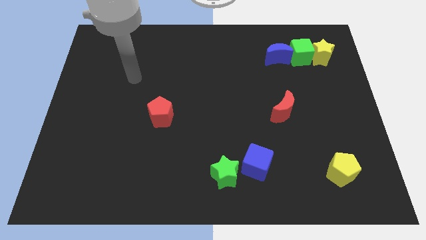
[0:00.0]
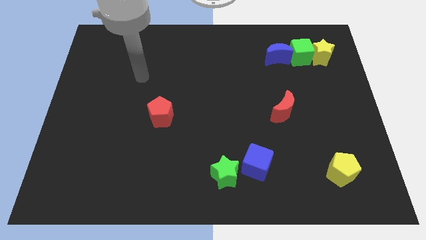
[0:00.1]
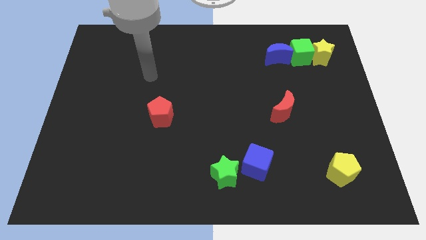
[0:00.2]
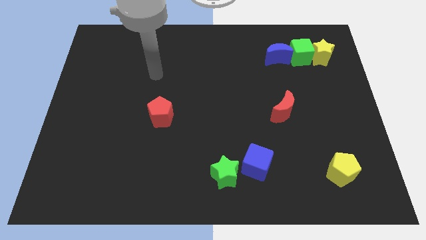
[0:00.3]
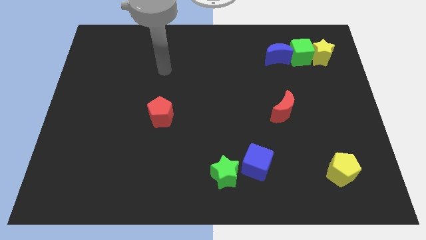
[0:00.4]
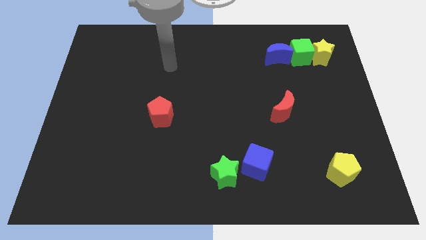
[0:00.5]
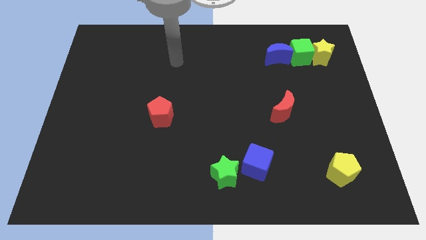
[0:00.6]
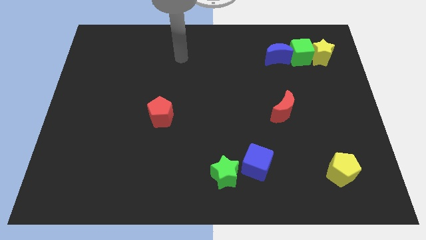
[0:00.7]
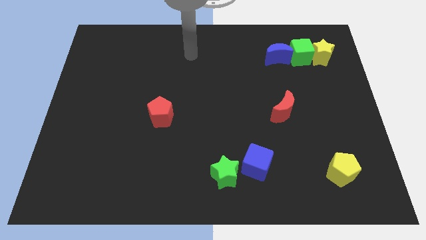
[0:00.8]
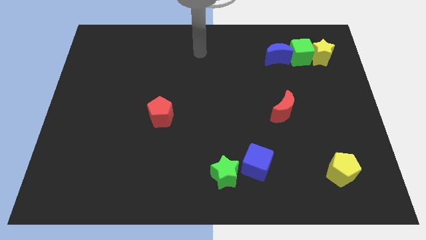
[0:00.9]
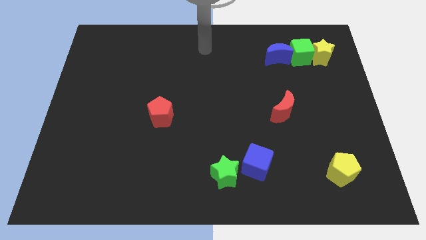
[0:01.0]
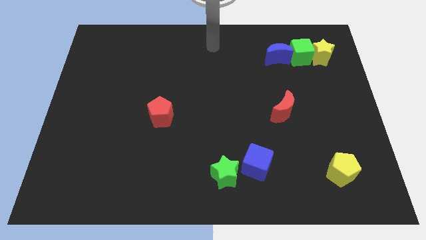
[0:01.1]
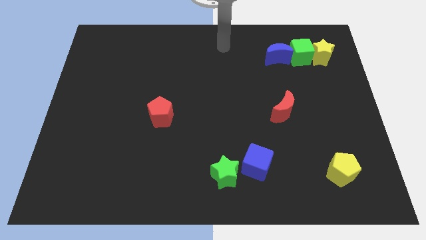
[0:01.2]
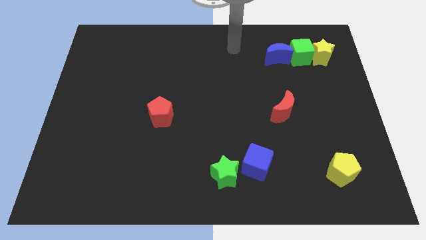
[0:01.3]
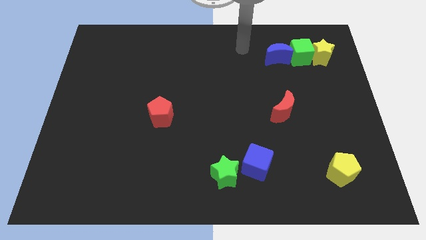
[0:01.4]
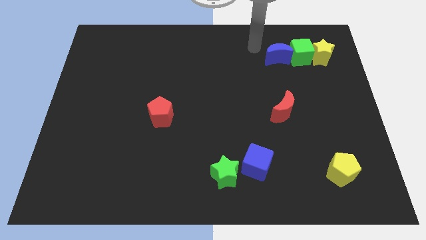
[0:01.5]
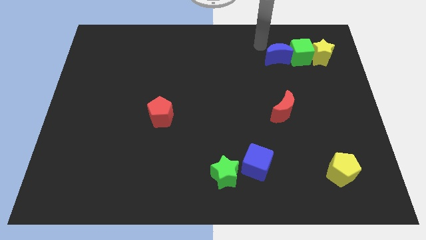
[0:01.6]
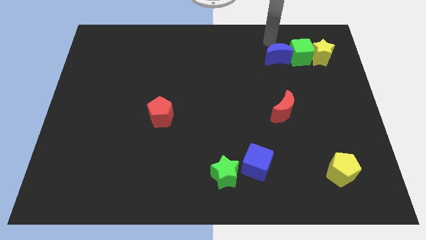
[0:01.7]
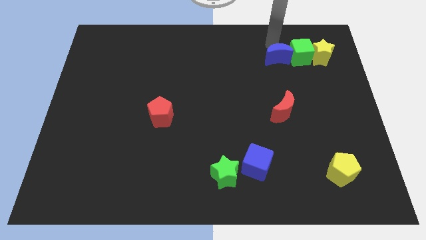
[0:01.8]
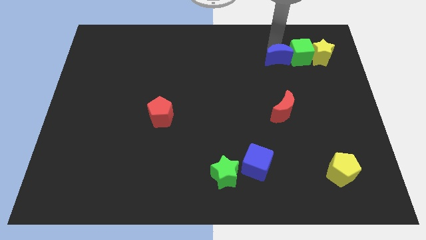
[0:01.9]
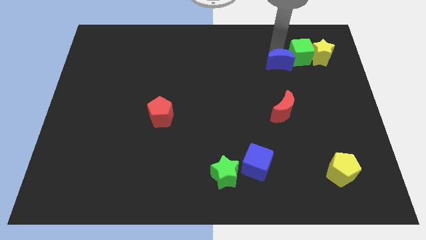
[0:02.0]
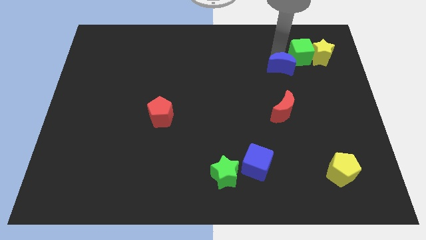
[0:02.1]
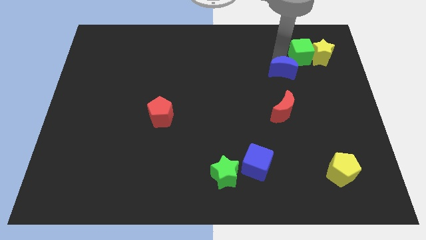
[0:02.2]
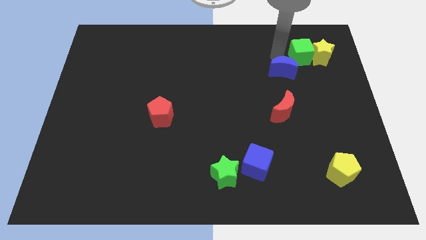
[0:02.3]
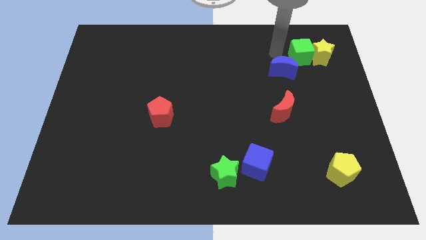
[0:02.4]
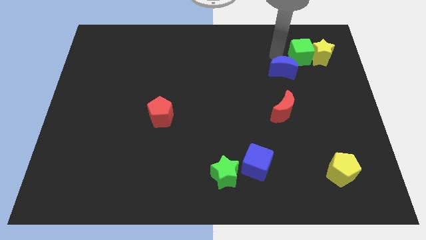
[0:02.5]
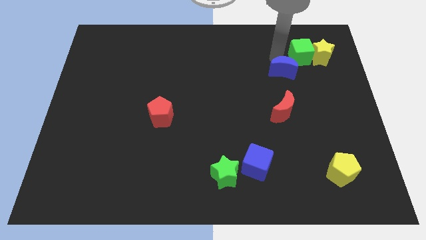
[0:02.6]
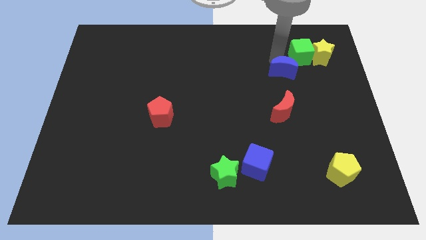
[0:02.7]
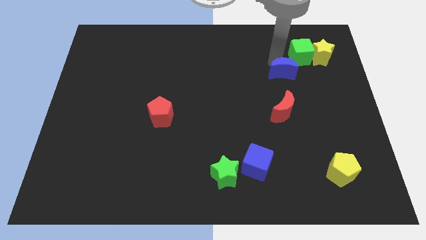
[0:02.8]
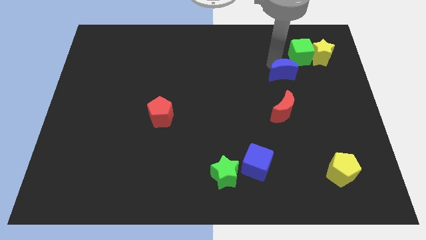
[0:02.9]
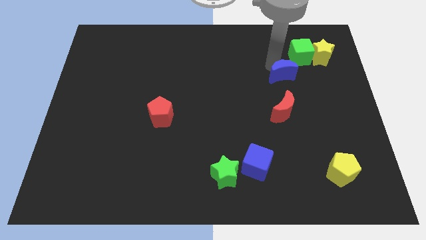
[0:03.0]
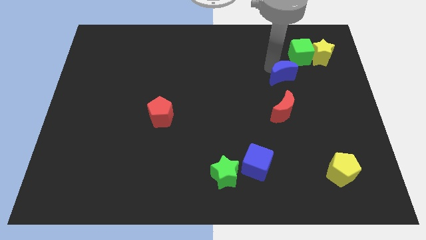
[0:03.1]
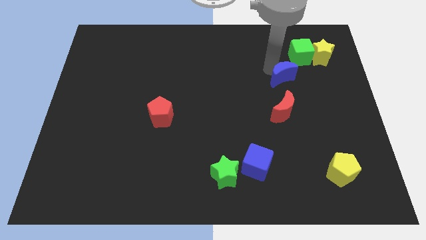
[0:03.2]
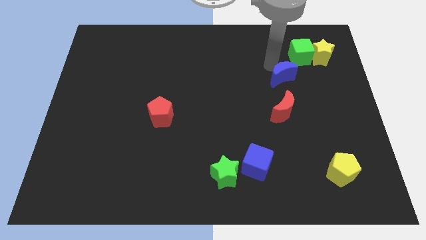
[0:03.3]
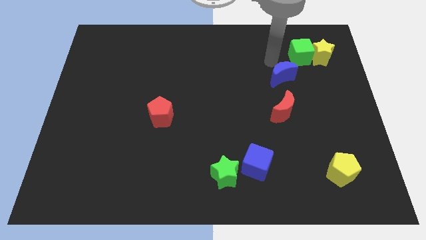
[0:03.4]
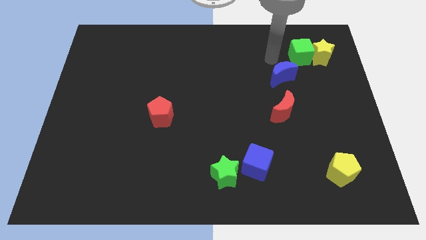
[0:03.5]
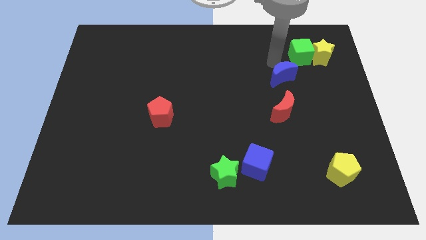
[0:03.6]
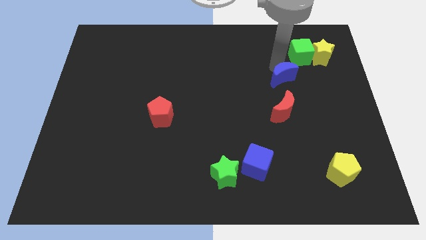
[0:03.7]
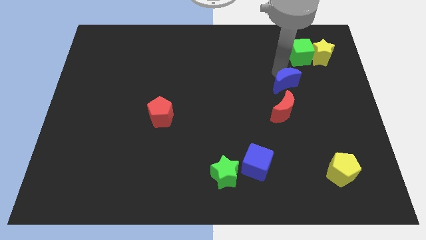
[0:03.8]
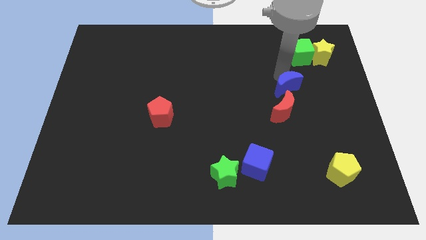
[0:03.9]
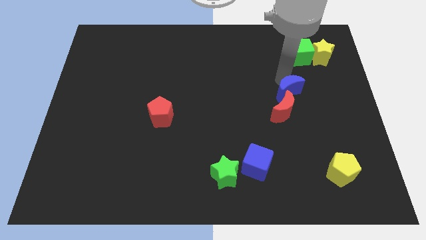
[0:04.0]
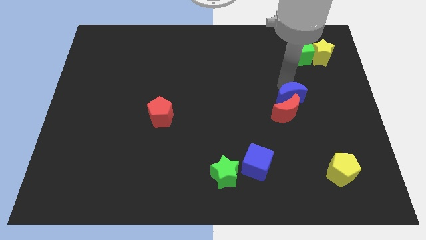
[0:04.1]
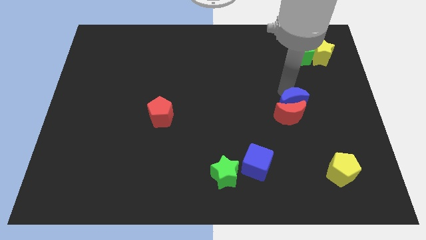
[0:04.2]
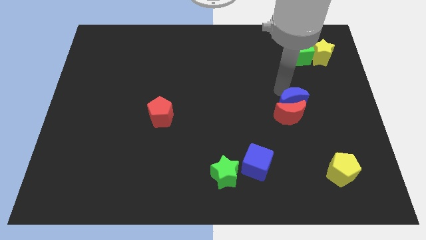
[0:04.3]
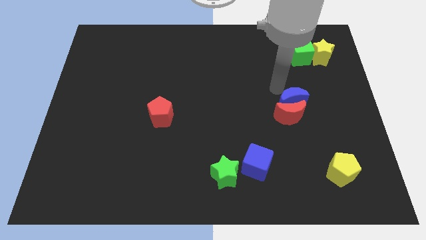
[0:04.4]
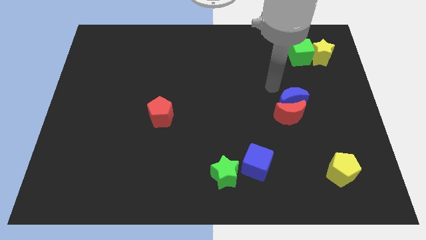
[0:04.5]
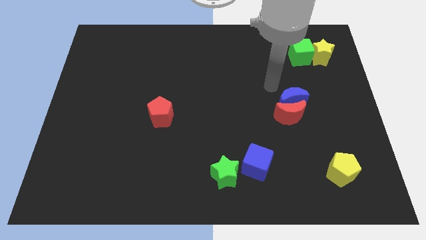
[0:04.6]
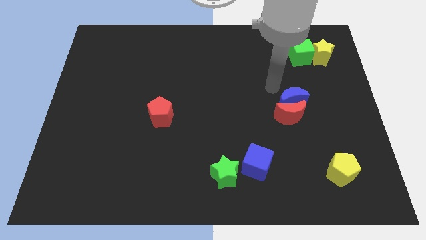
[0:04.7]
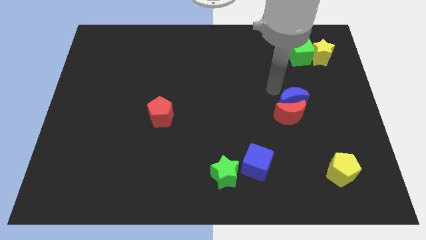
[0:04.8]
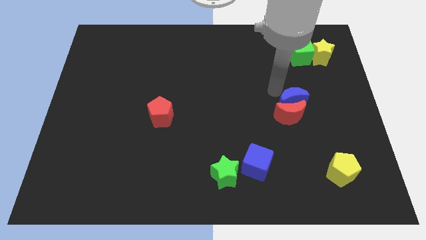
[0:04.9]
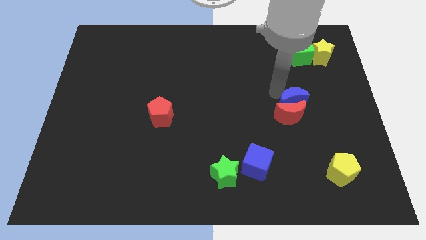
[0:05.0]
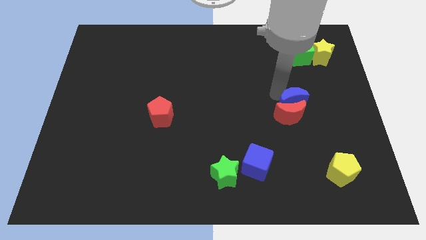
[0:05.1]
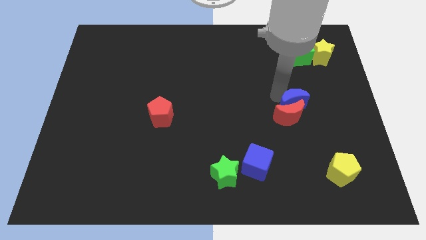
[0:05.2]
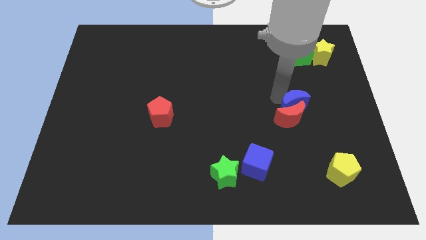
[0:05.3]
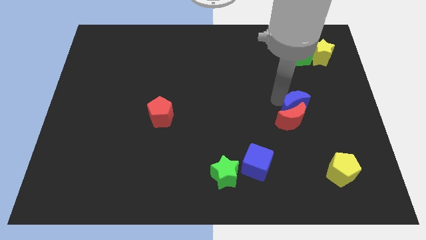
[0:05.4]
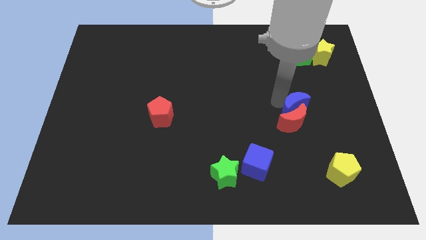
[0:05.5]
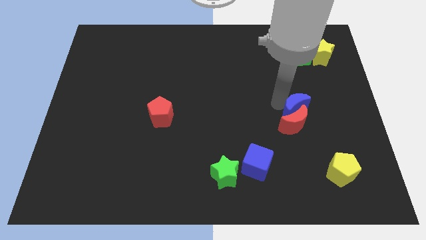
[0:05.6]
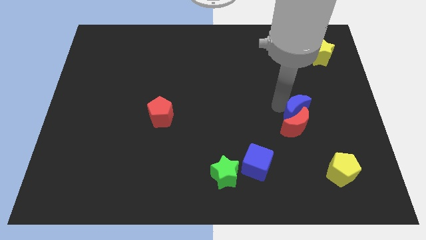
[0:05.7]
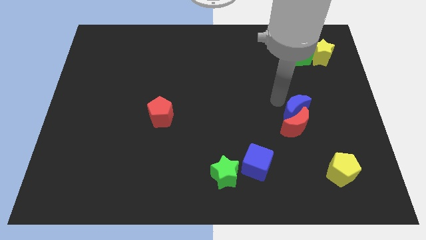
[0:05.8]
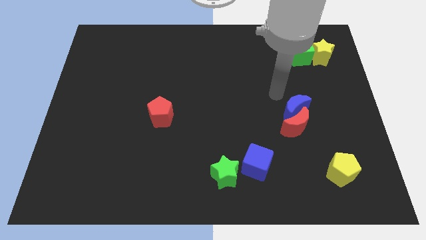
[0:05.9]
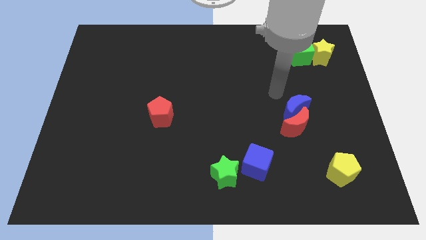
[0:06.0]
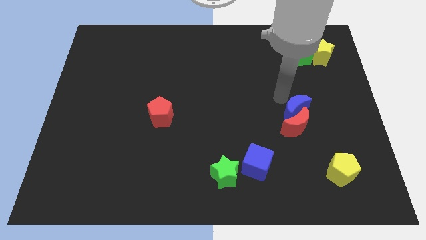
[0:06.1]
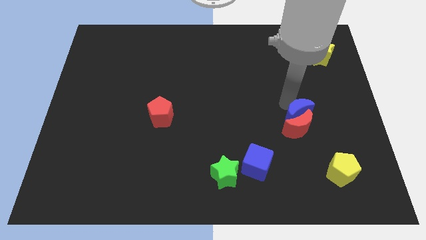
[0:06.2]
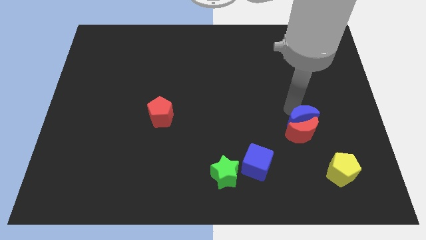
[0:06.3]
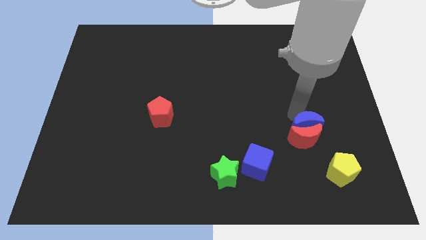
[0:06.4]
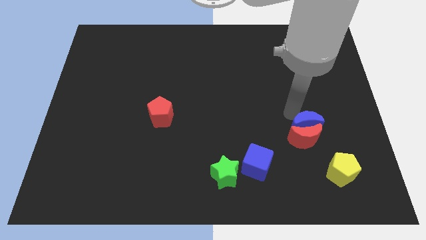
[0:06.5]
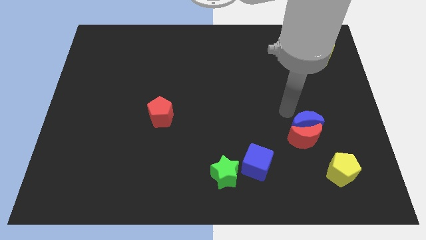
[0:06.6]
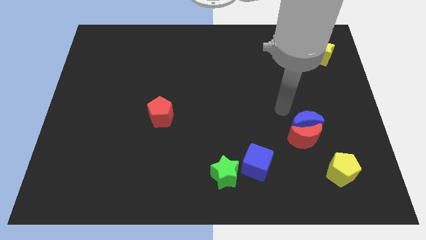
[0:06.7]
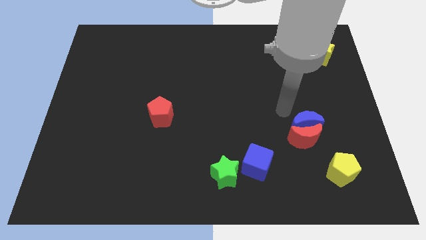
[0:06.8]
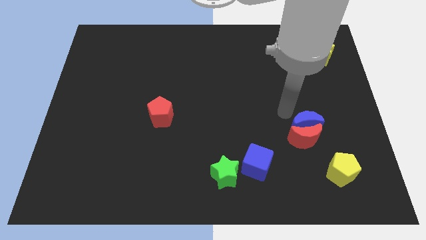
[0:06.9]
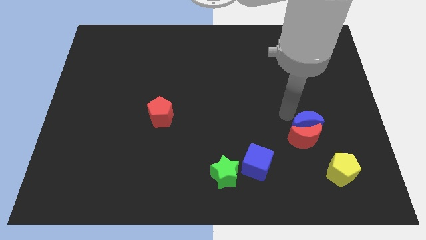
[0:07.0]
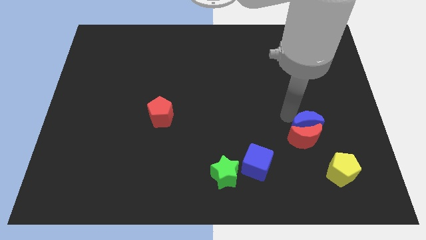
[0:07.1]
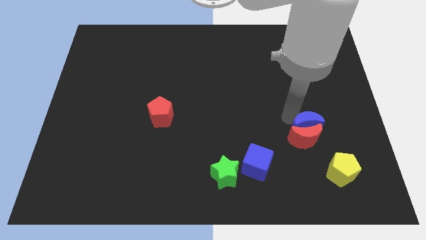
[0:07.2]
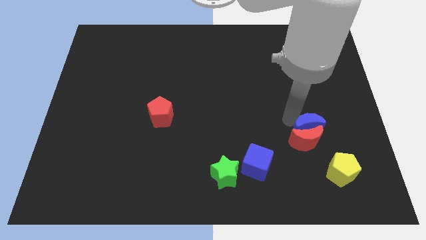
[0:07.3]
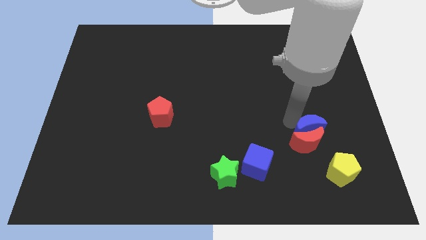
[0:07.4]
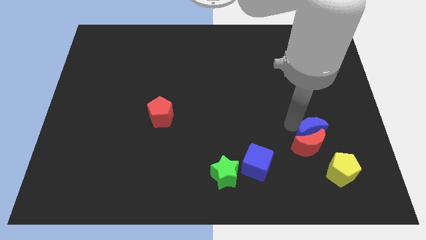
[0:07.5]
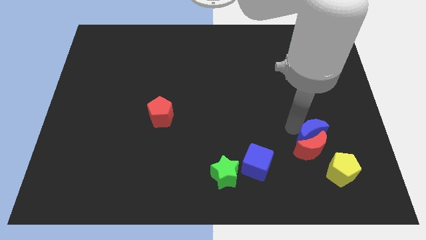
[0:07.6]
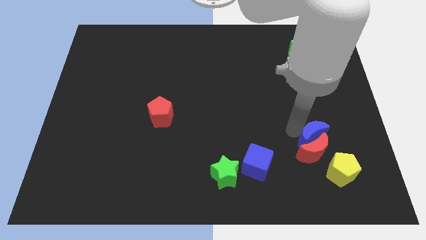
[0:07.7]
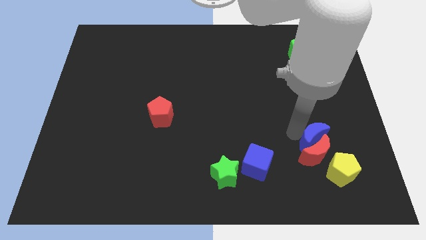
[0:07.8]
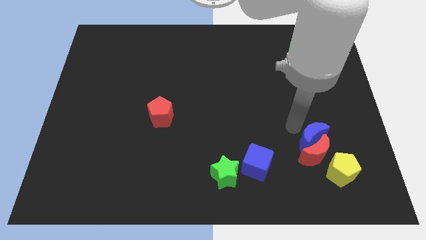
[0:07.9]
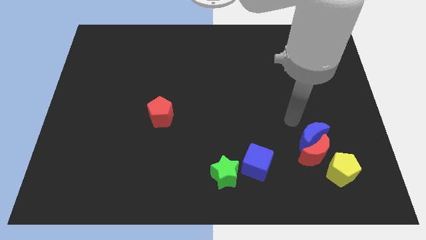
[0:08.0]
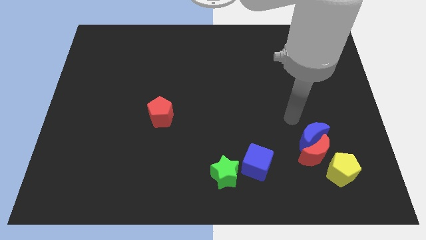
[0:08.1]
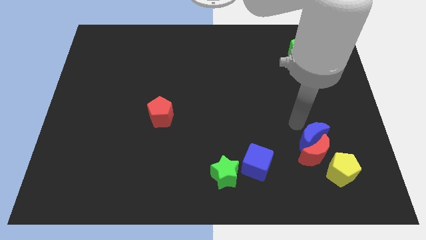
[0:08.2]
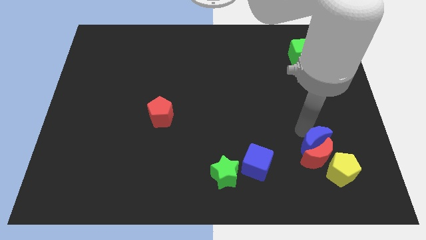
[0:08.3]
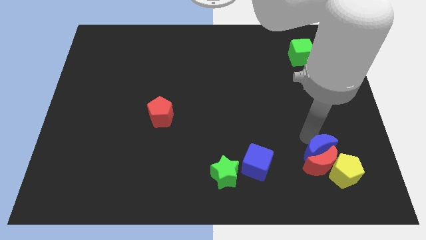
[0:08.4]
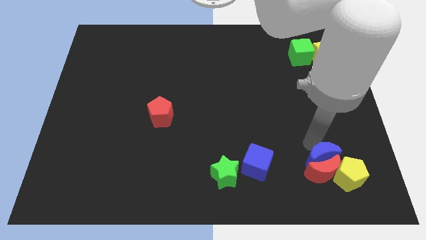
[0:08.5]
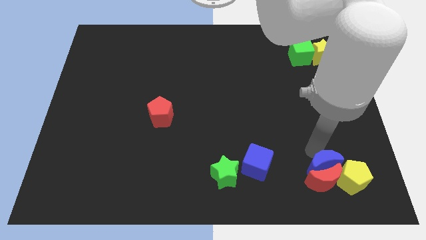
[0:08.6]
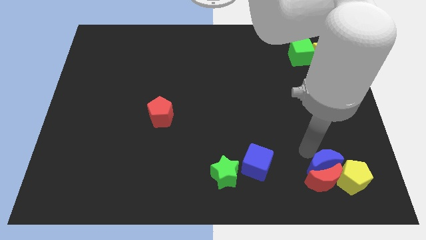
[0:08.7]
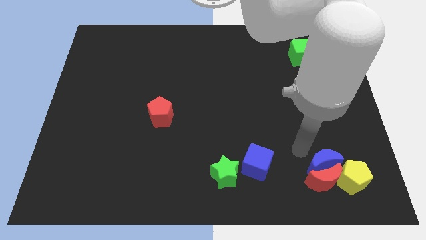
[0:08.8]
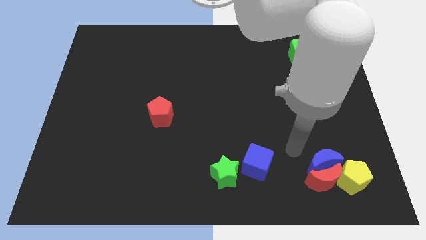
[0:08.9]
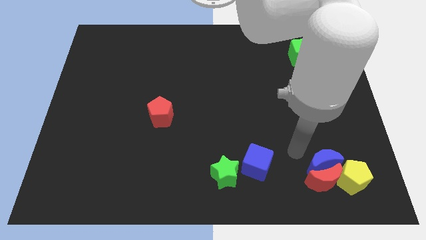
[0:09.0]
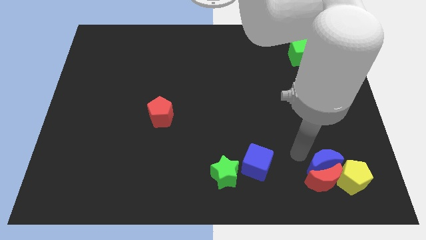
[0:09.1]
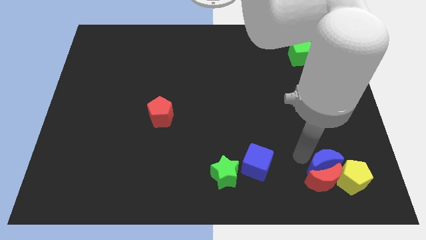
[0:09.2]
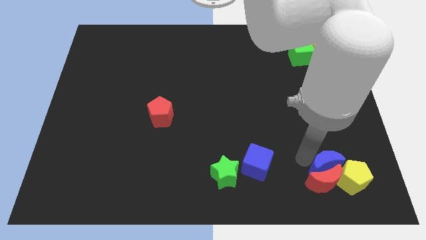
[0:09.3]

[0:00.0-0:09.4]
push the blue moon towards the yellow pentagon
